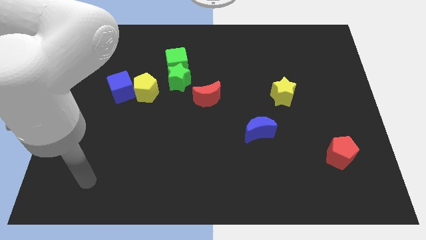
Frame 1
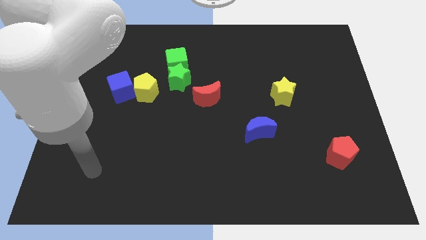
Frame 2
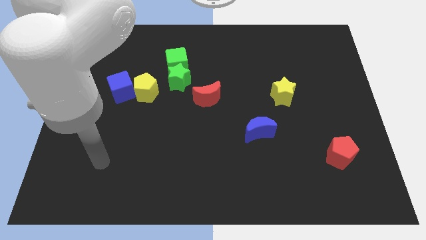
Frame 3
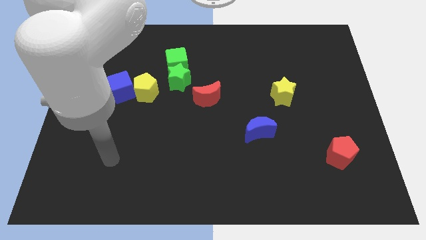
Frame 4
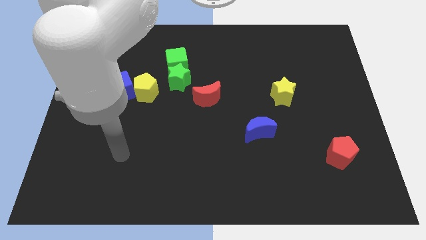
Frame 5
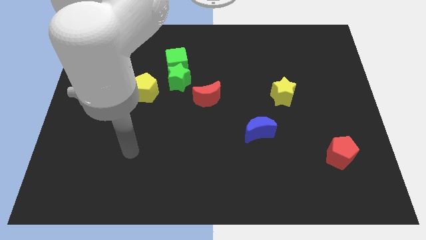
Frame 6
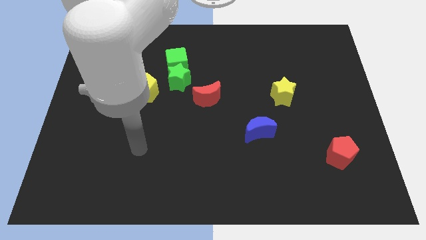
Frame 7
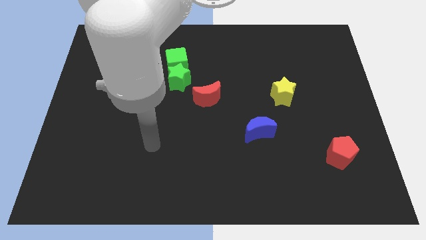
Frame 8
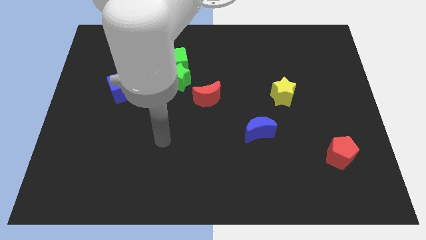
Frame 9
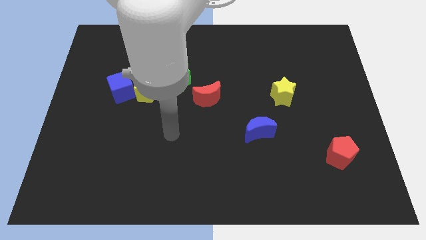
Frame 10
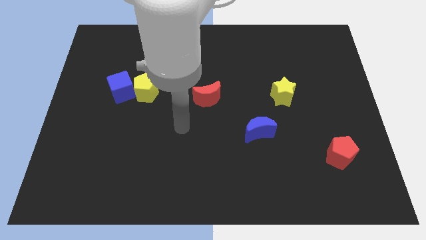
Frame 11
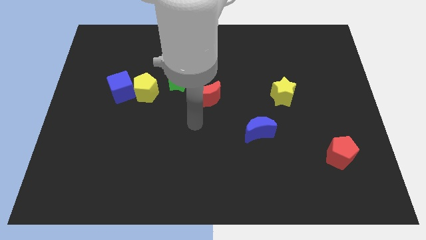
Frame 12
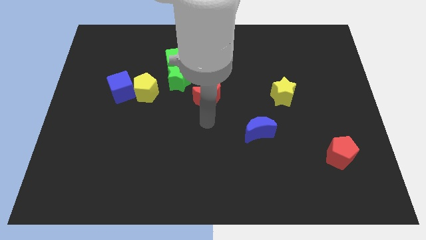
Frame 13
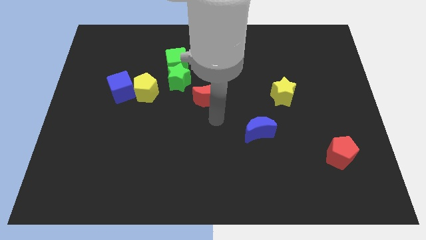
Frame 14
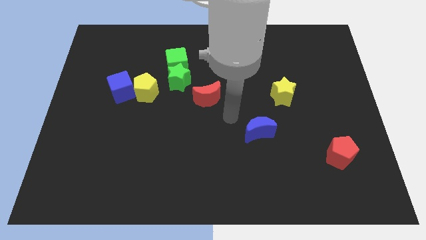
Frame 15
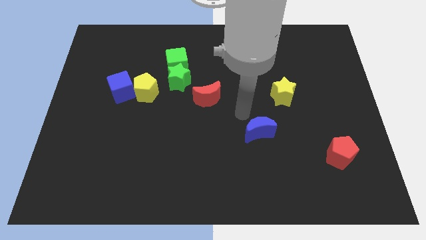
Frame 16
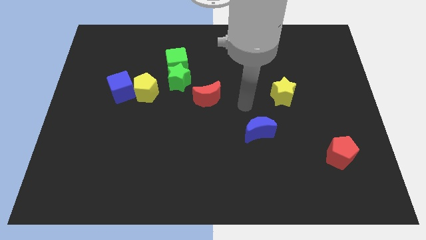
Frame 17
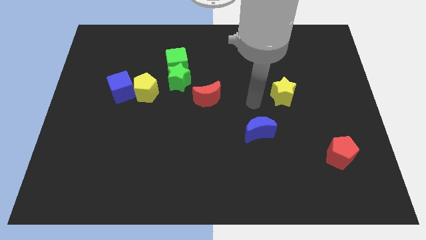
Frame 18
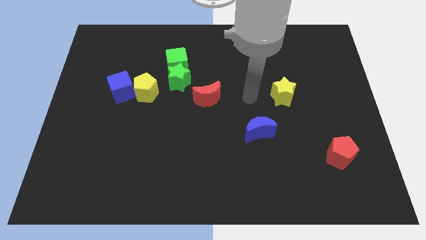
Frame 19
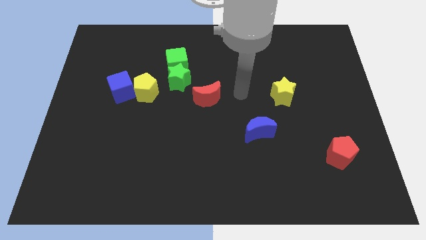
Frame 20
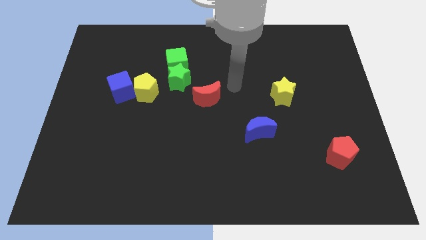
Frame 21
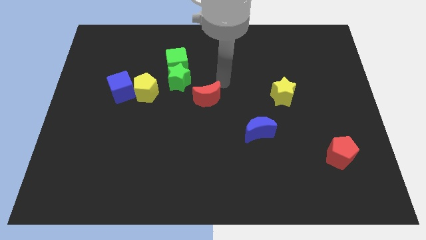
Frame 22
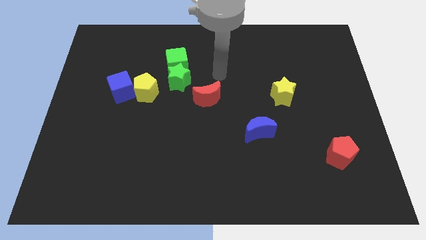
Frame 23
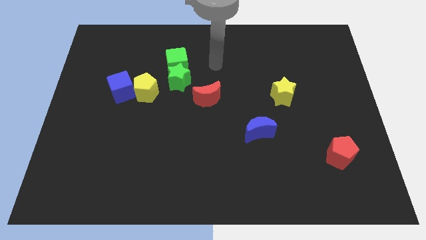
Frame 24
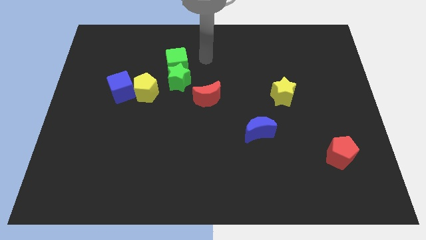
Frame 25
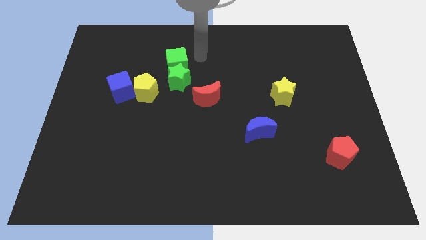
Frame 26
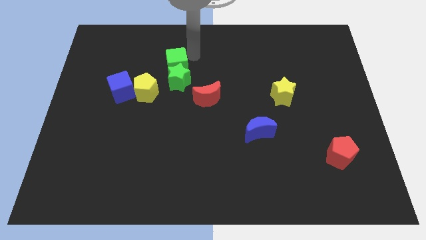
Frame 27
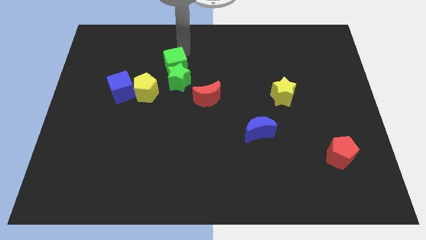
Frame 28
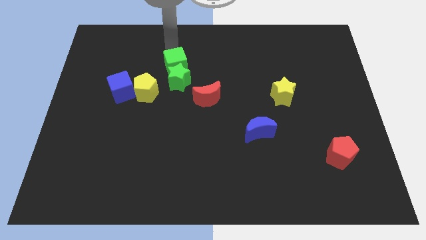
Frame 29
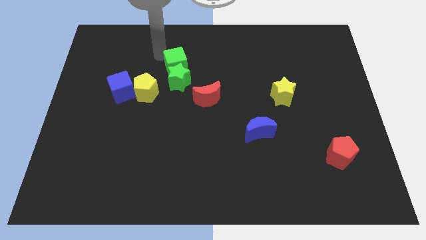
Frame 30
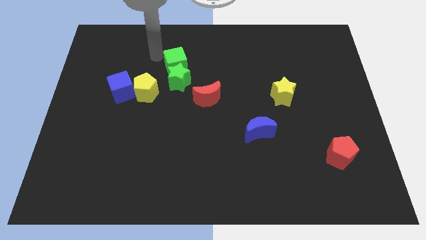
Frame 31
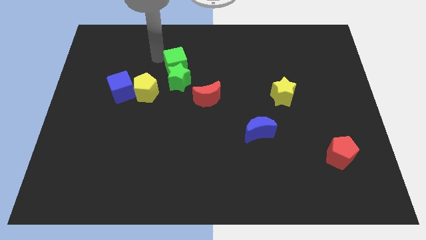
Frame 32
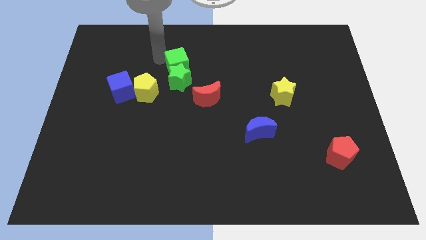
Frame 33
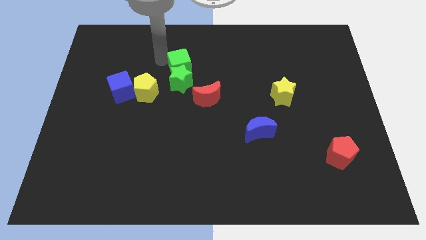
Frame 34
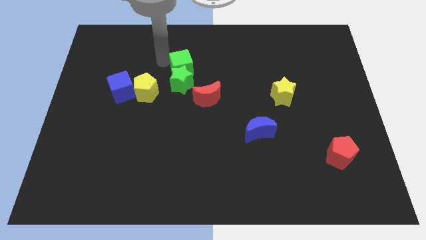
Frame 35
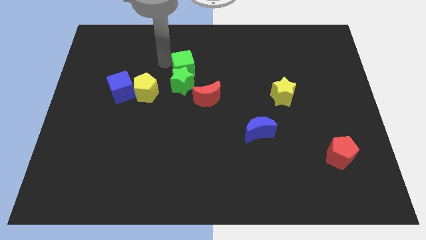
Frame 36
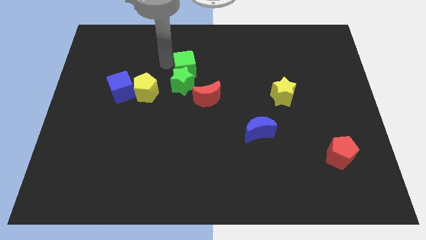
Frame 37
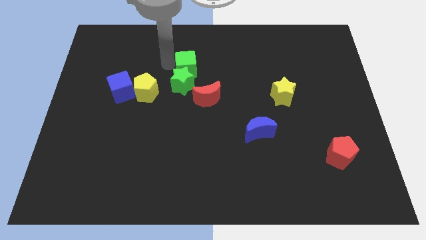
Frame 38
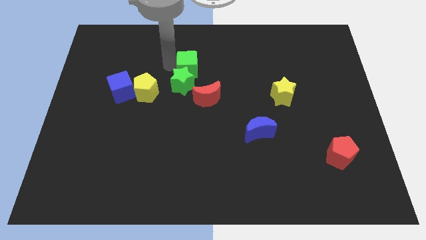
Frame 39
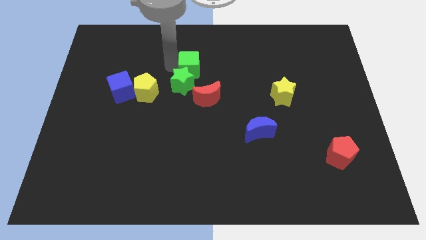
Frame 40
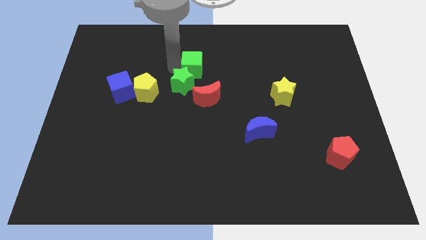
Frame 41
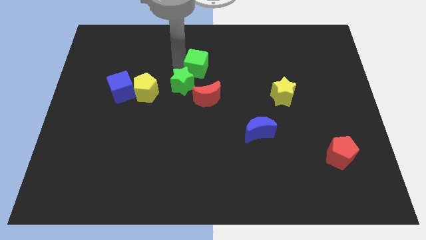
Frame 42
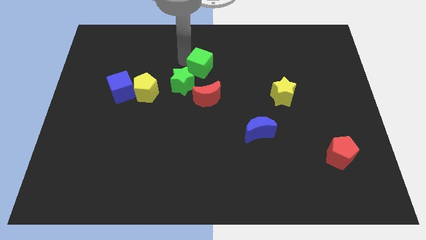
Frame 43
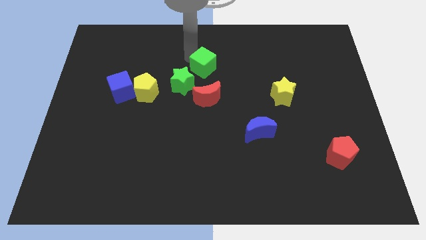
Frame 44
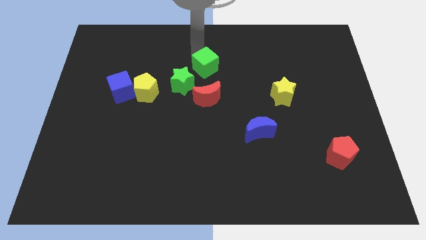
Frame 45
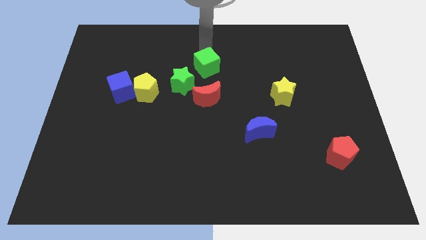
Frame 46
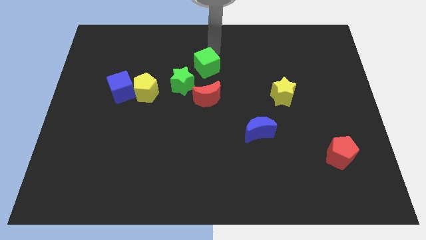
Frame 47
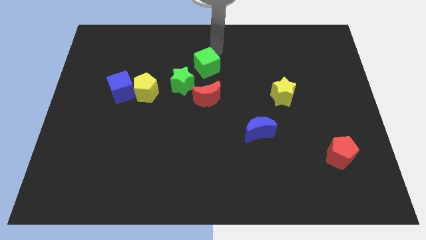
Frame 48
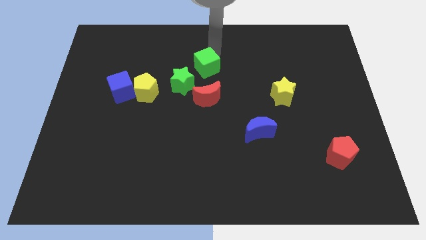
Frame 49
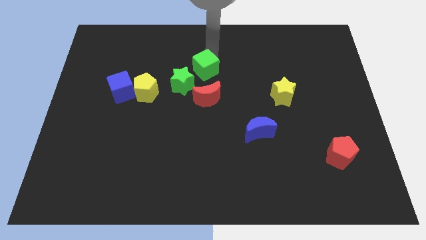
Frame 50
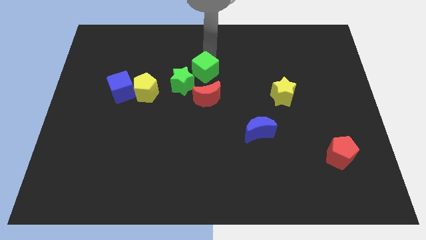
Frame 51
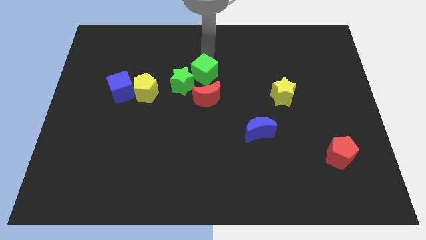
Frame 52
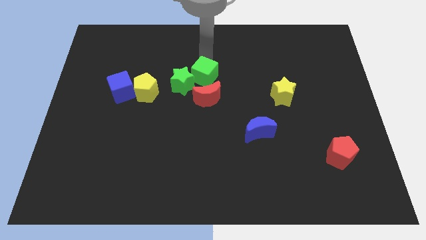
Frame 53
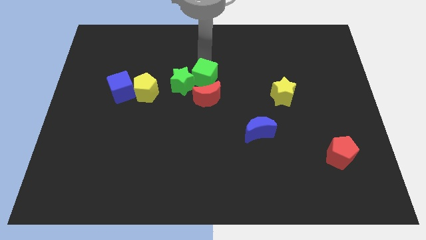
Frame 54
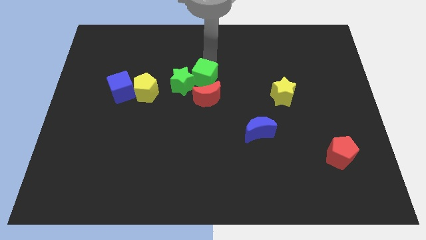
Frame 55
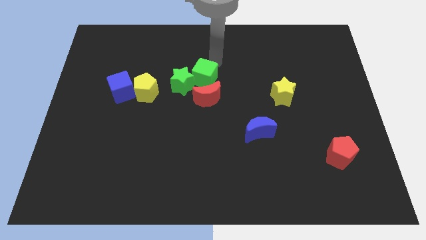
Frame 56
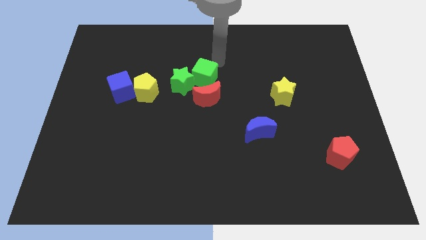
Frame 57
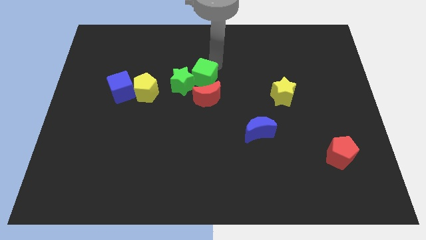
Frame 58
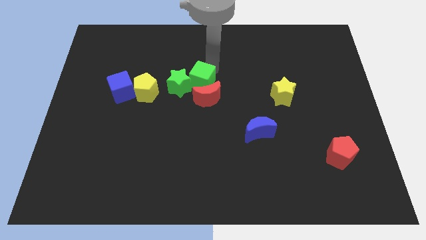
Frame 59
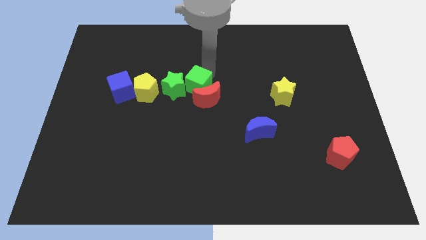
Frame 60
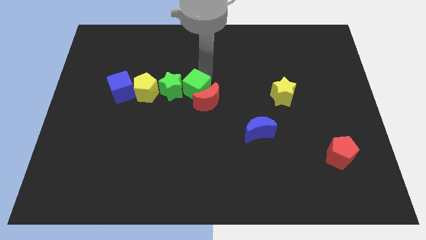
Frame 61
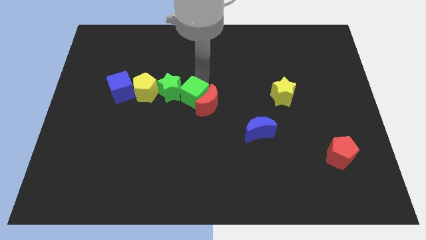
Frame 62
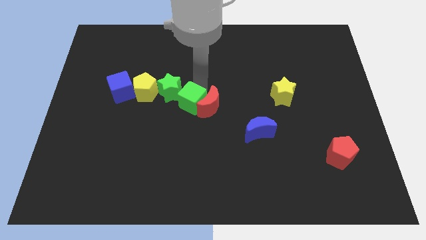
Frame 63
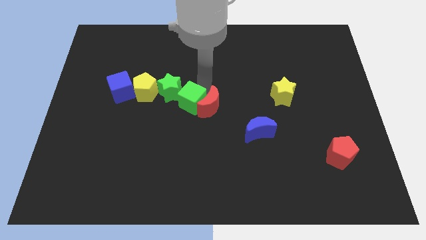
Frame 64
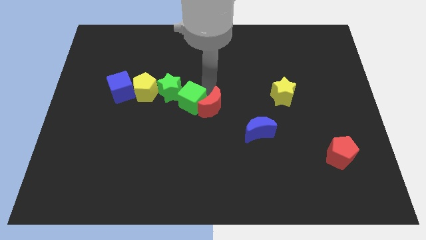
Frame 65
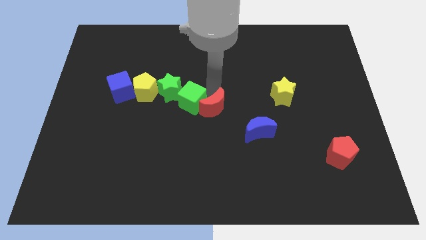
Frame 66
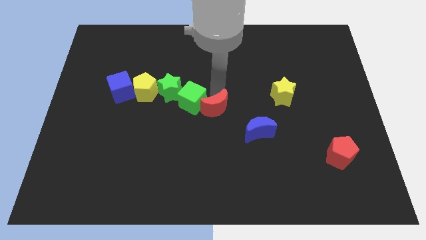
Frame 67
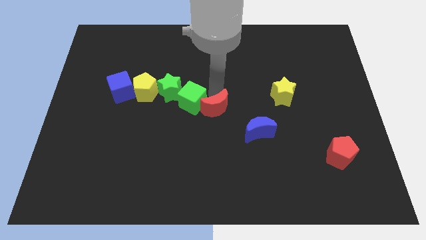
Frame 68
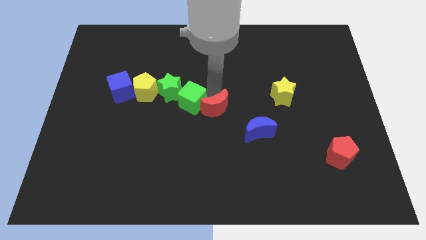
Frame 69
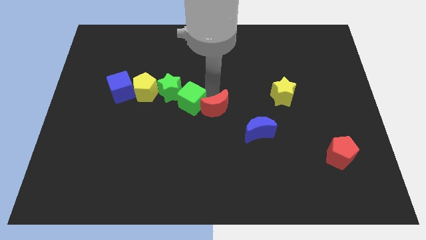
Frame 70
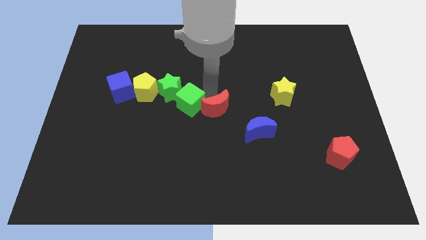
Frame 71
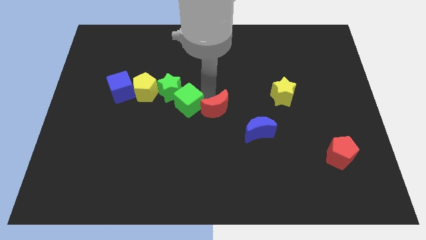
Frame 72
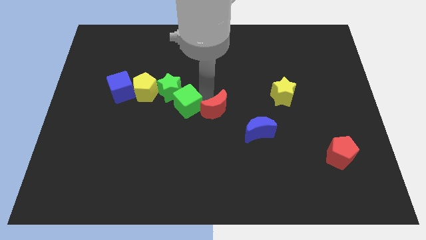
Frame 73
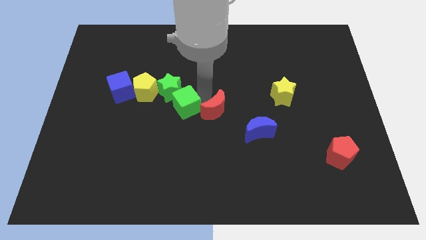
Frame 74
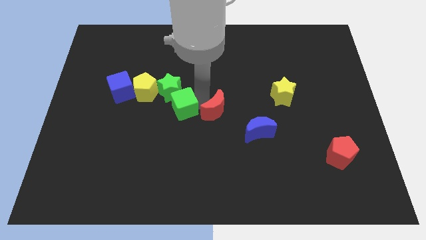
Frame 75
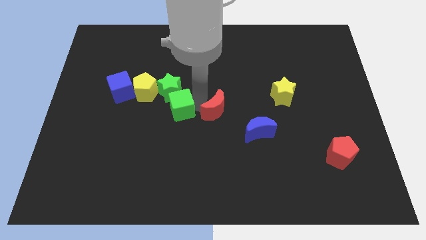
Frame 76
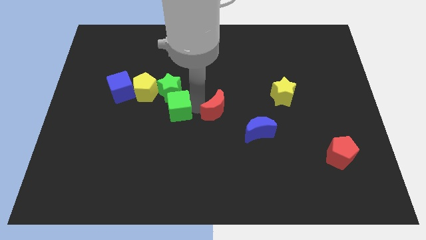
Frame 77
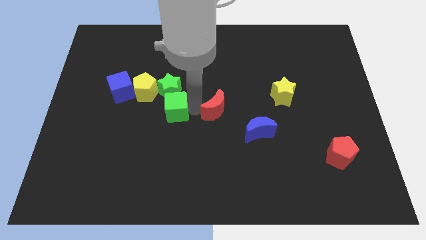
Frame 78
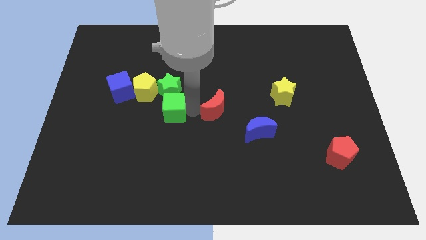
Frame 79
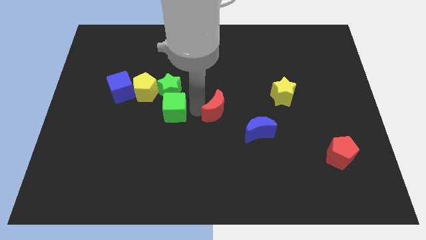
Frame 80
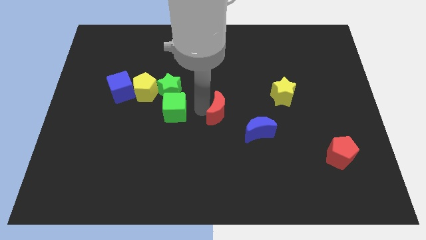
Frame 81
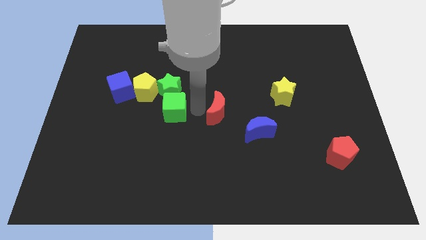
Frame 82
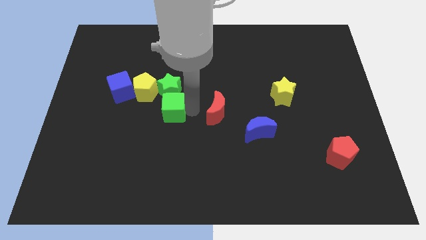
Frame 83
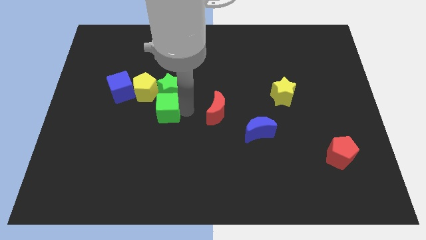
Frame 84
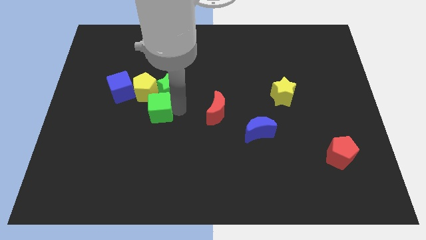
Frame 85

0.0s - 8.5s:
slide the green cube below the yellow pentagon
